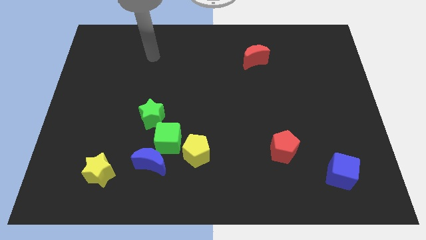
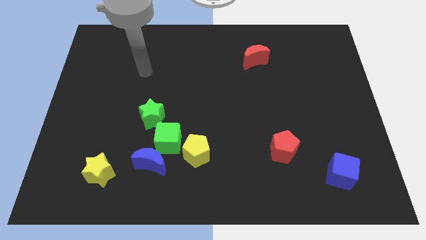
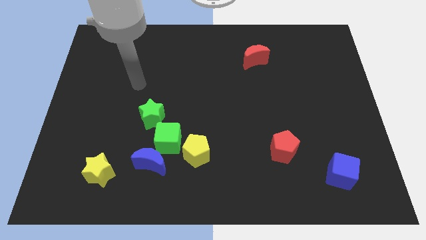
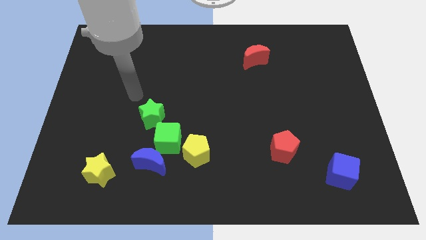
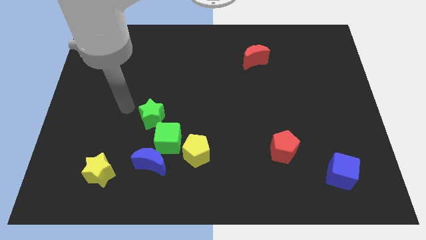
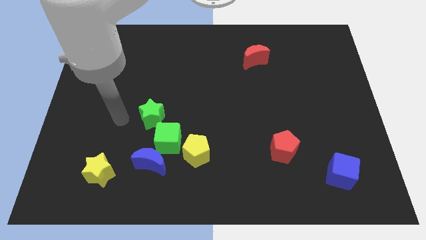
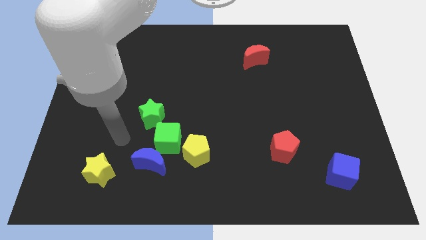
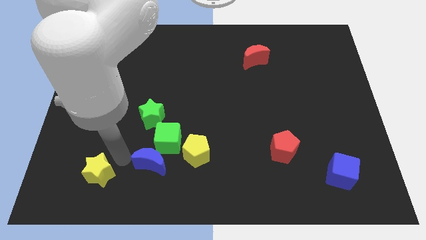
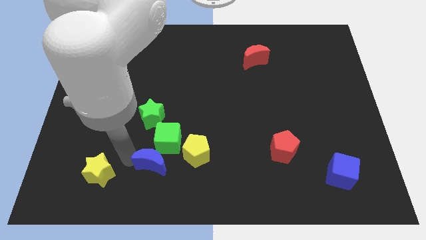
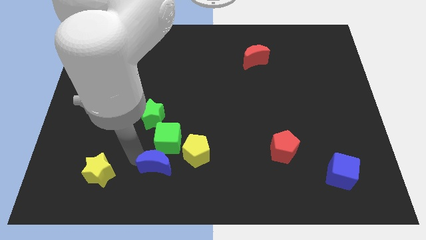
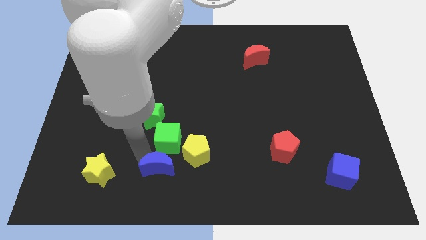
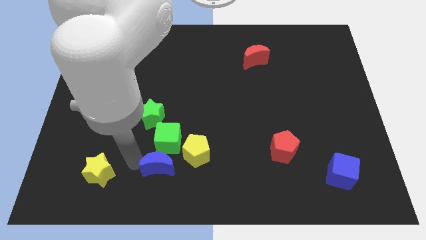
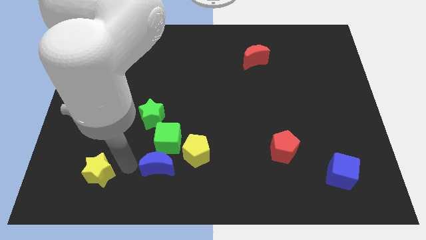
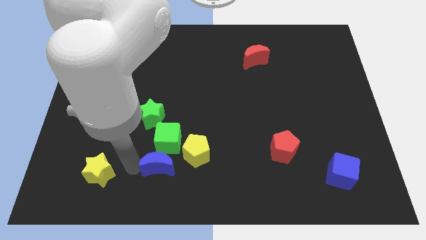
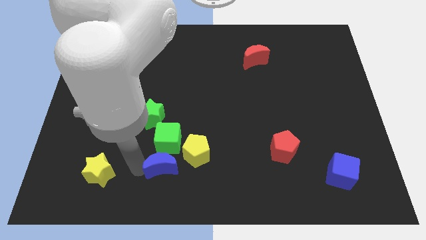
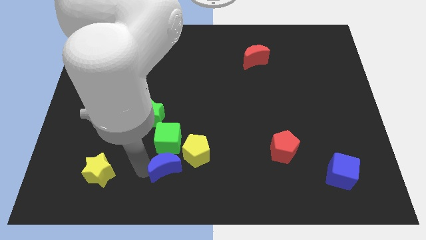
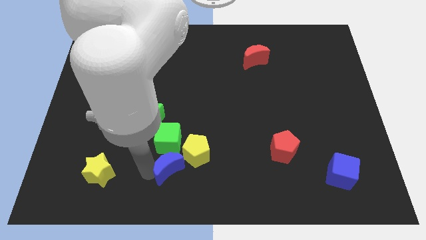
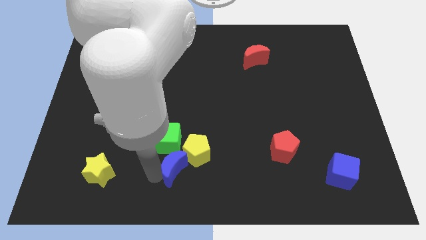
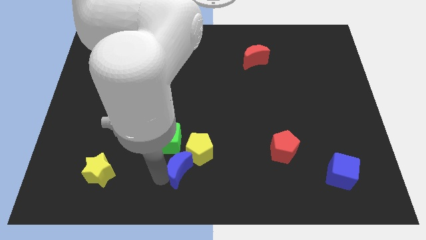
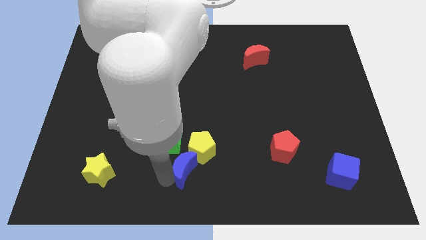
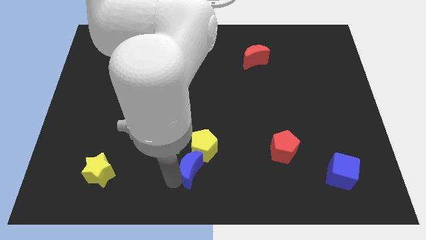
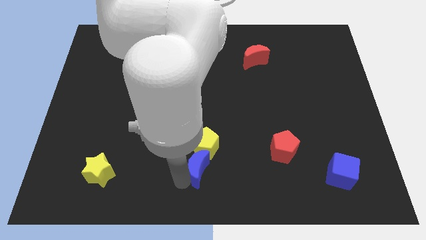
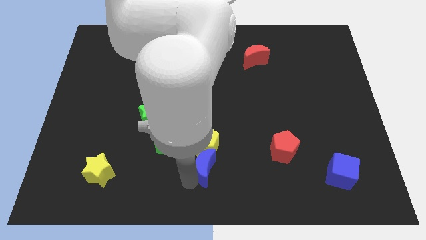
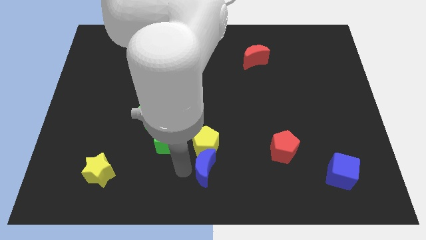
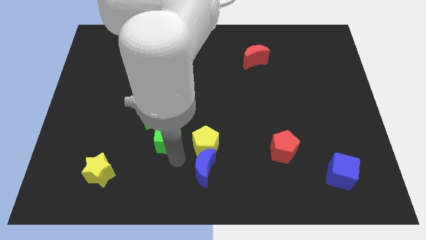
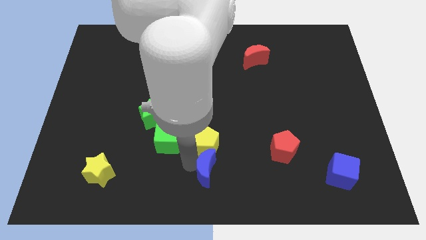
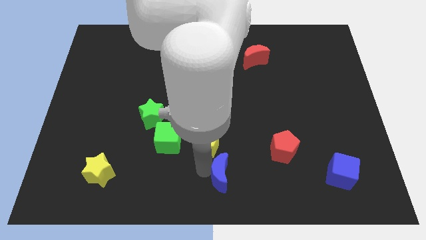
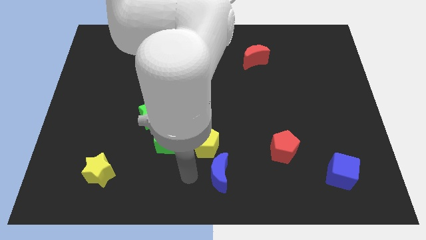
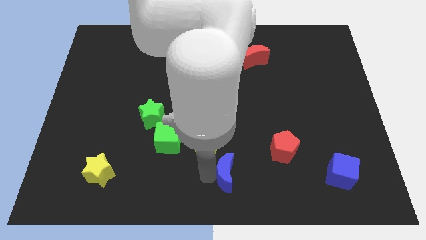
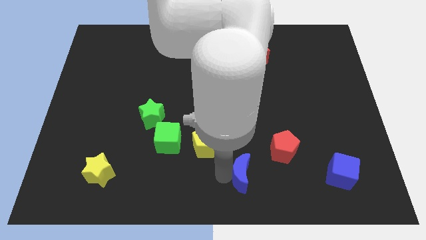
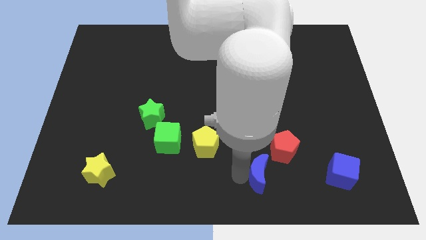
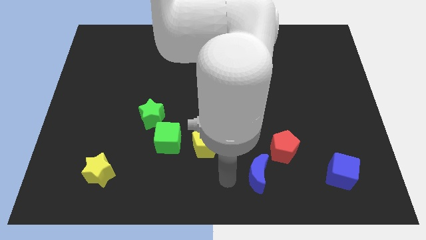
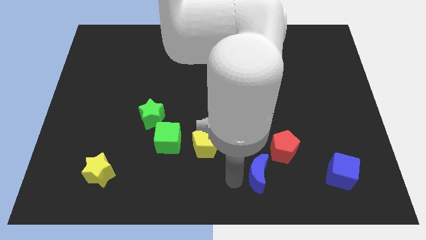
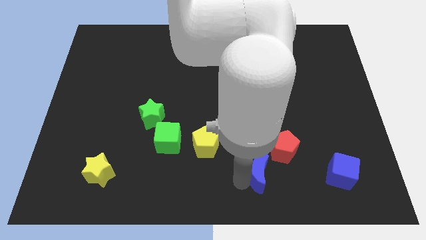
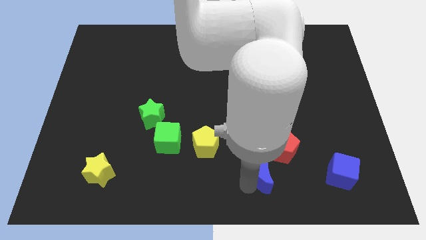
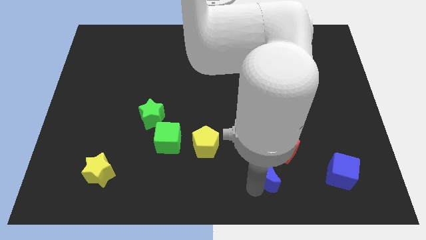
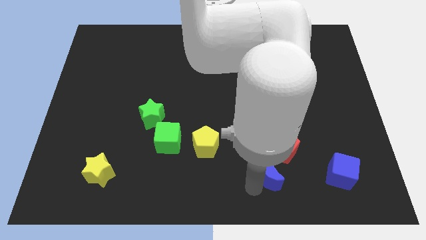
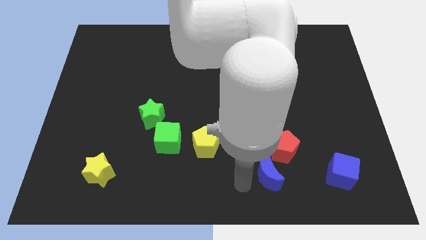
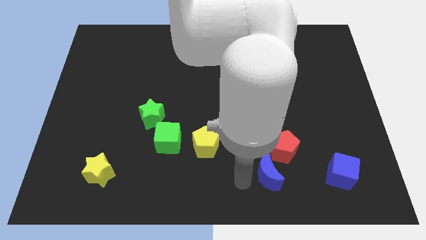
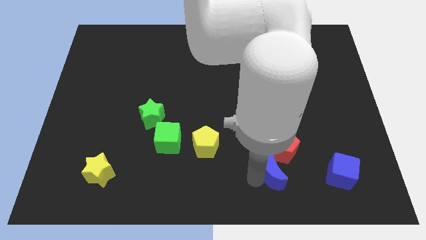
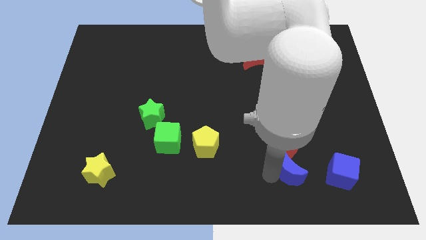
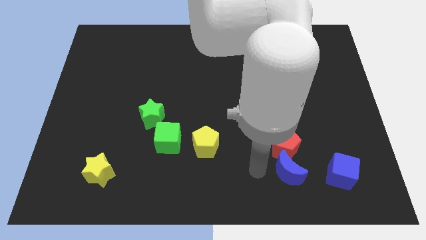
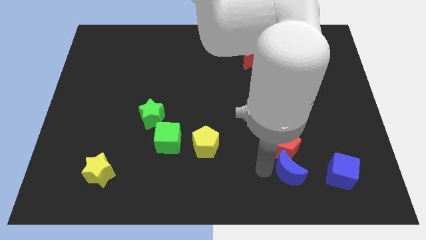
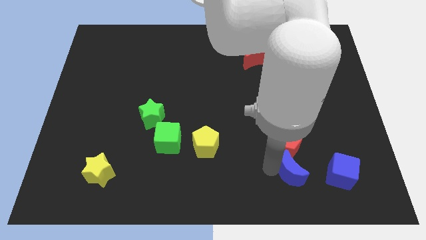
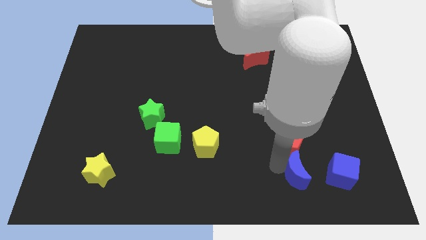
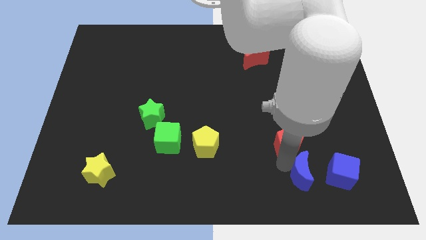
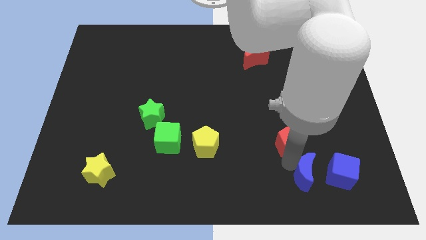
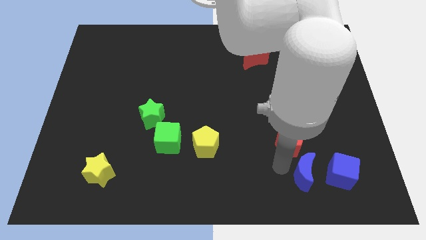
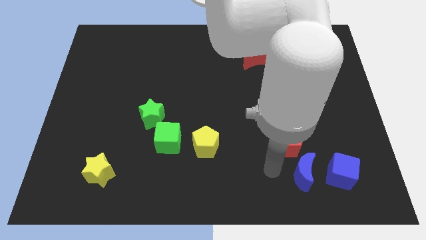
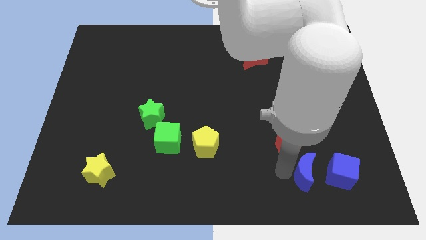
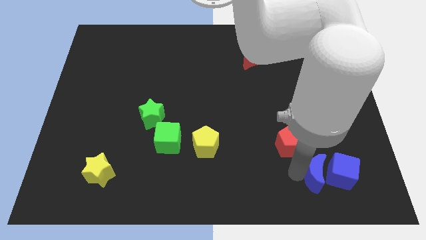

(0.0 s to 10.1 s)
put the blue moon to the blue cube

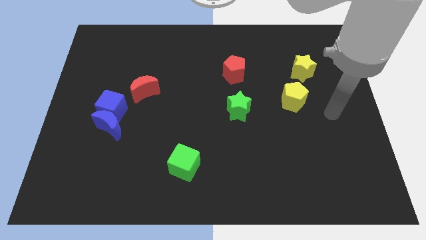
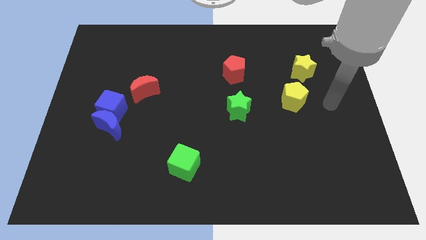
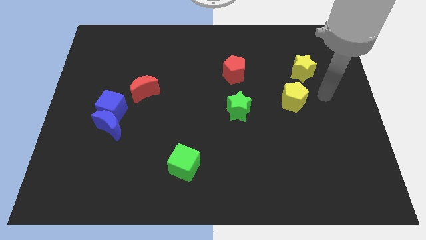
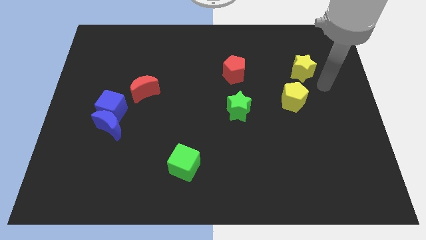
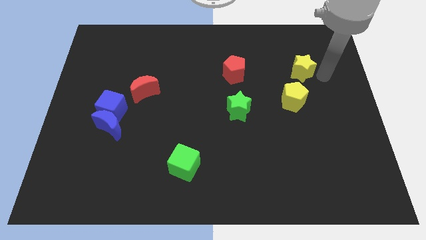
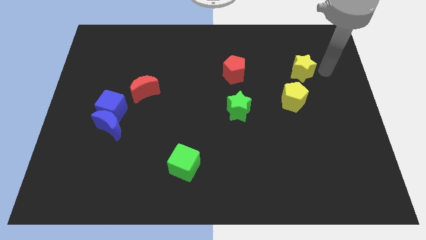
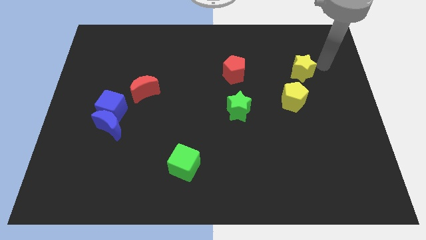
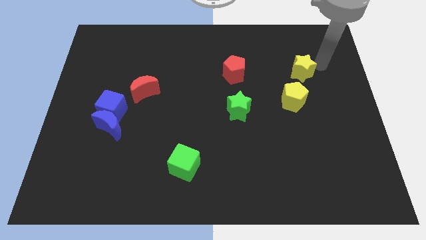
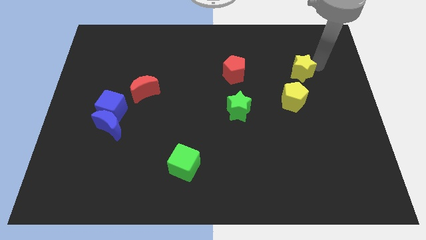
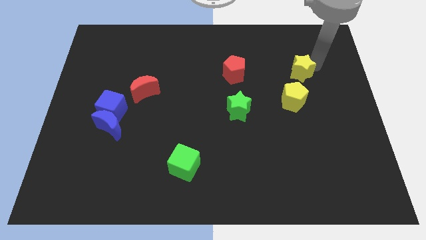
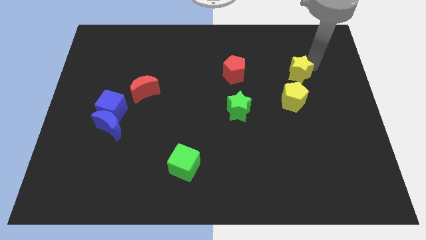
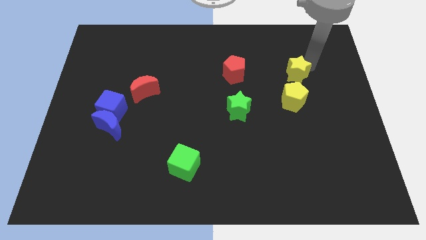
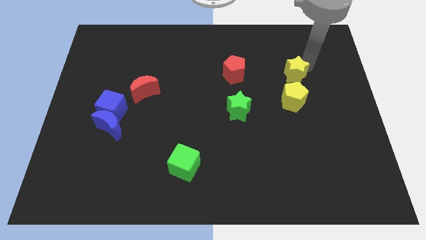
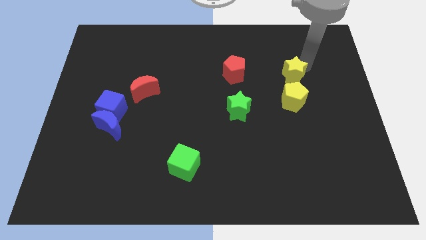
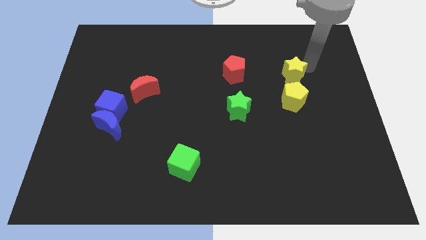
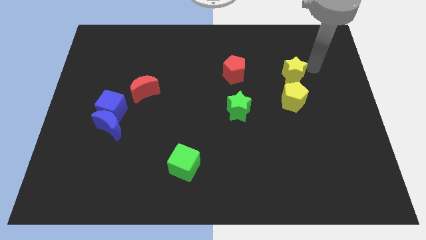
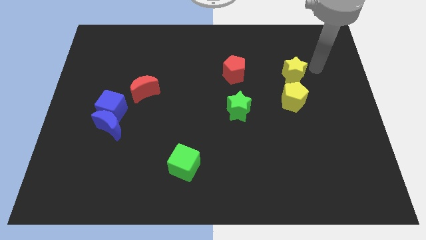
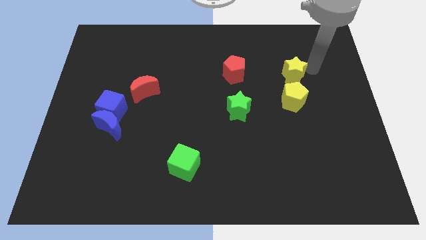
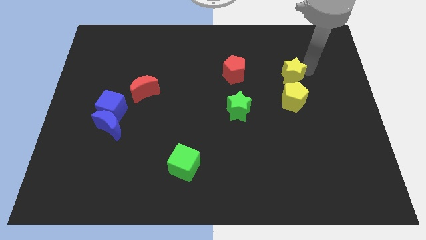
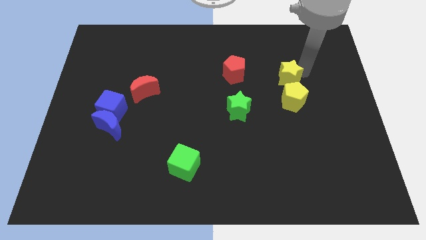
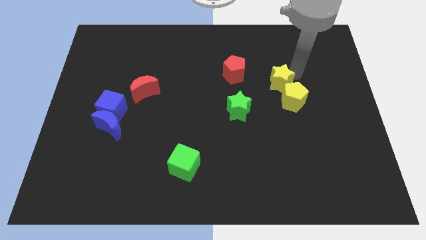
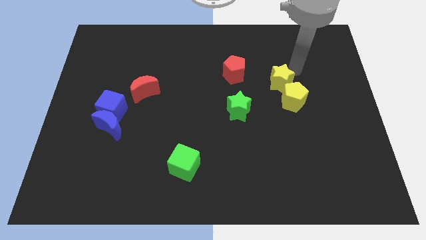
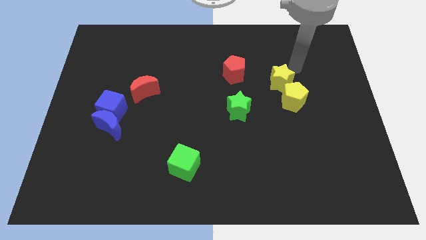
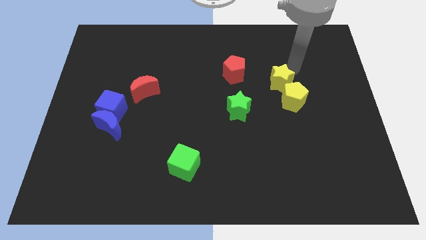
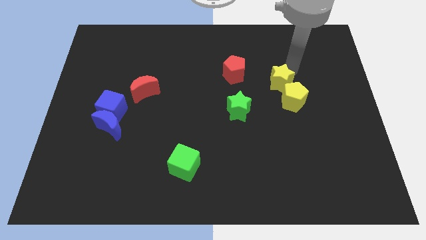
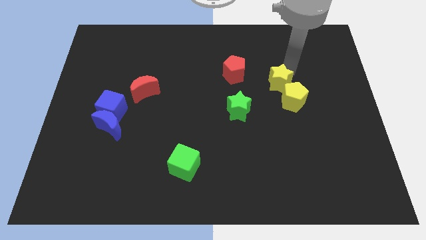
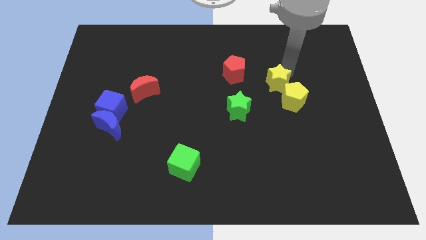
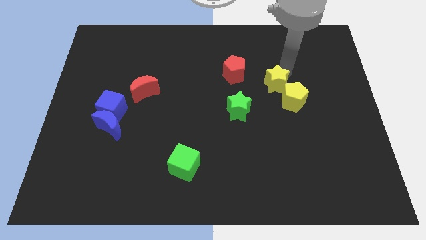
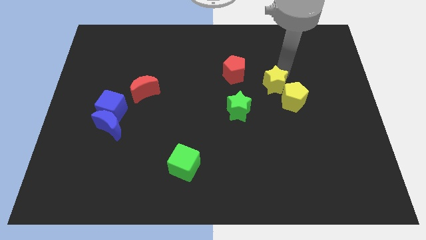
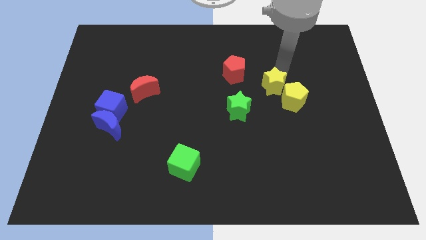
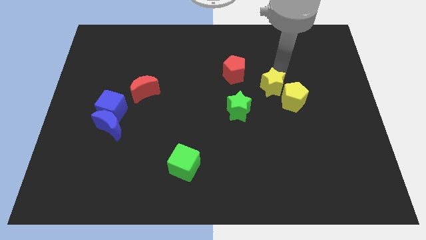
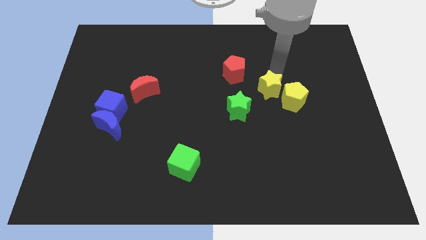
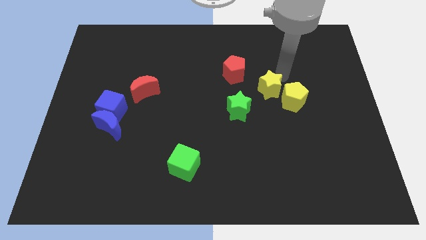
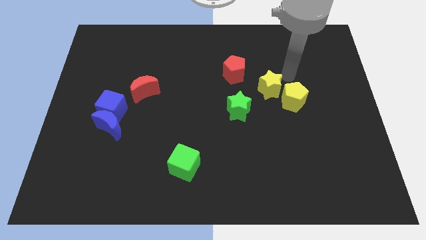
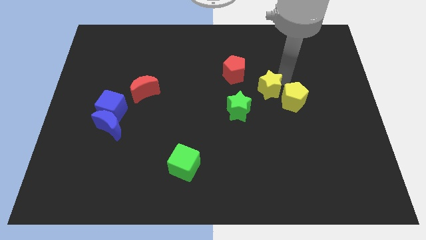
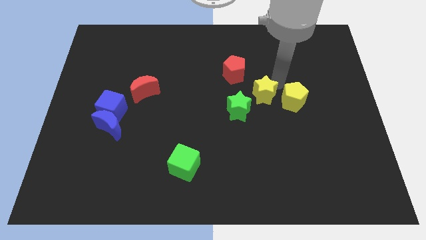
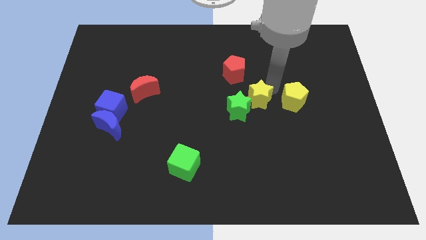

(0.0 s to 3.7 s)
slide the yellow star to the green star
